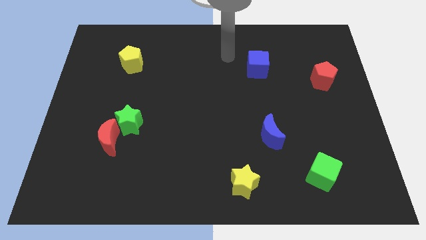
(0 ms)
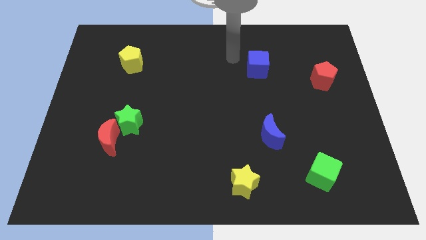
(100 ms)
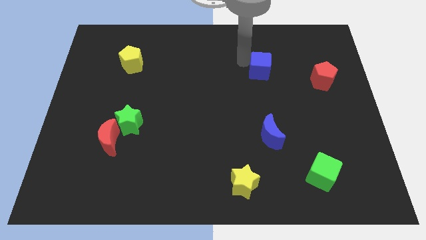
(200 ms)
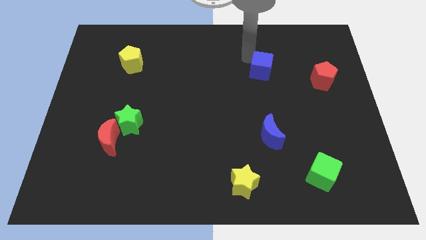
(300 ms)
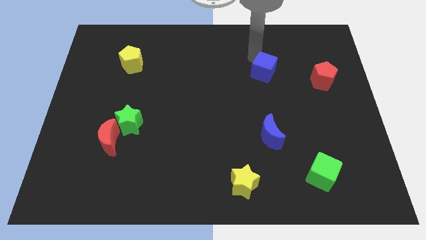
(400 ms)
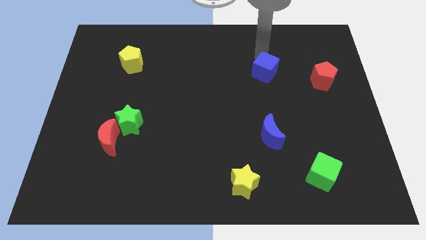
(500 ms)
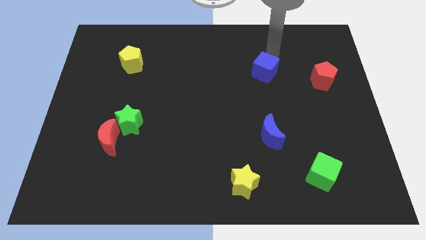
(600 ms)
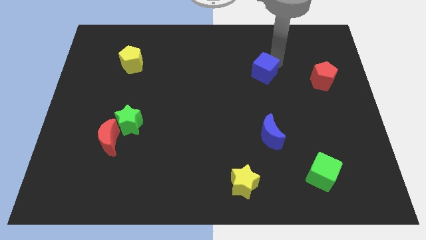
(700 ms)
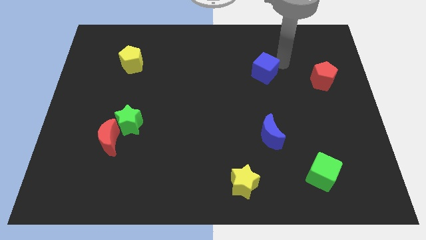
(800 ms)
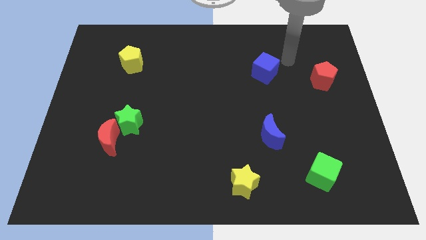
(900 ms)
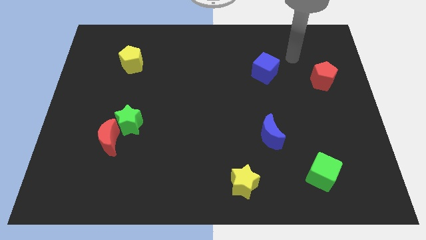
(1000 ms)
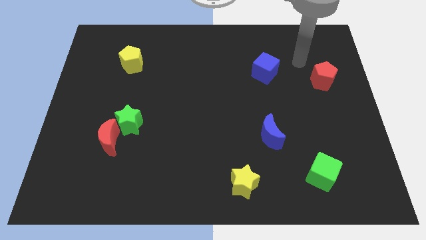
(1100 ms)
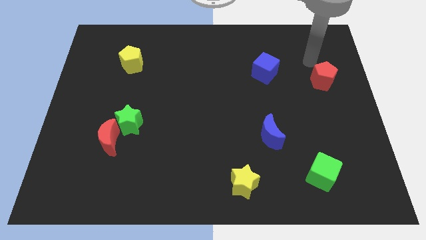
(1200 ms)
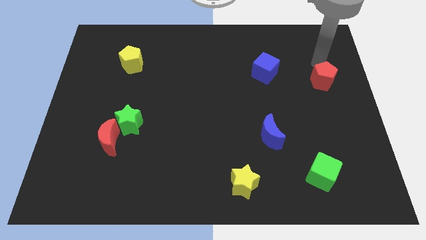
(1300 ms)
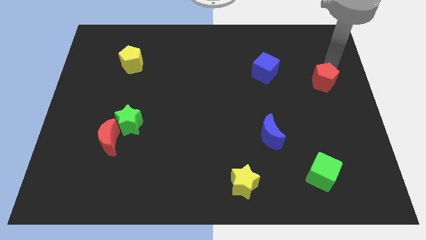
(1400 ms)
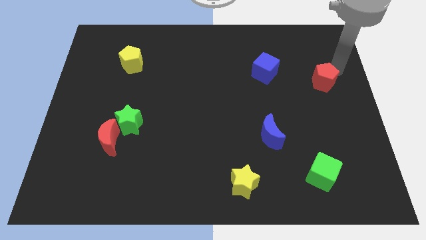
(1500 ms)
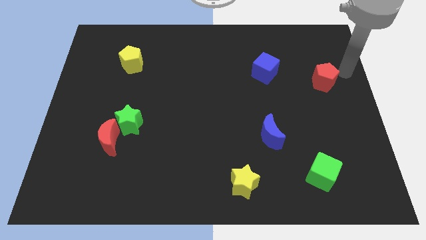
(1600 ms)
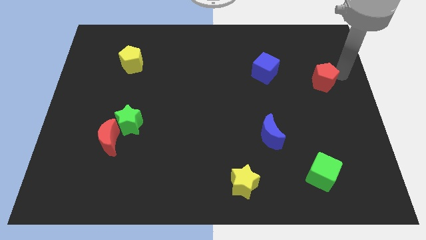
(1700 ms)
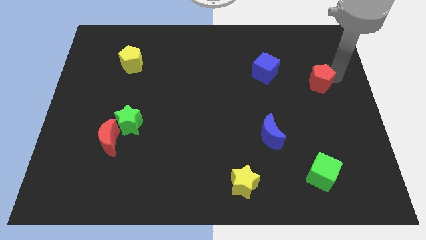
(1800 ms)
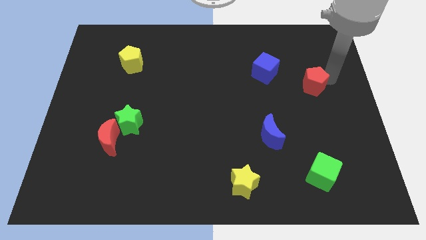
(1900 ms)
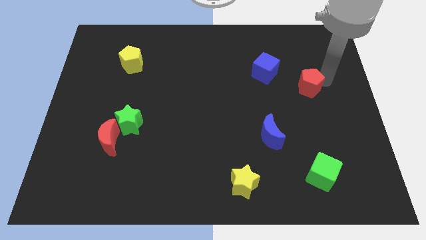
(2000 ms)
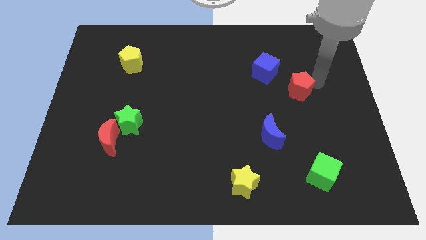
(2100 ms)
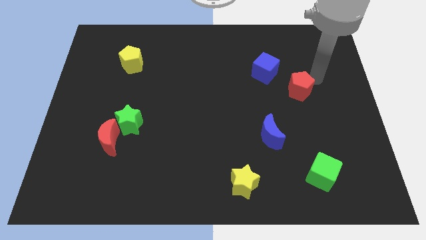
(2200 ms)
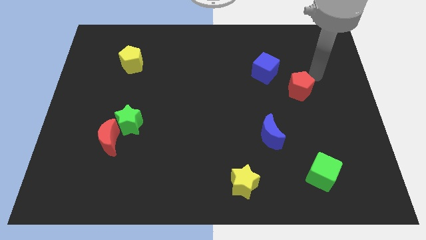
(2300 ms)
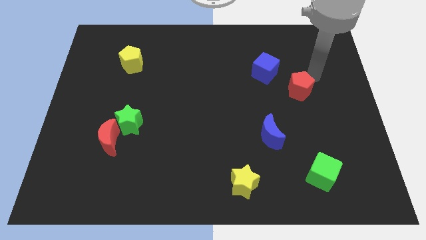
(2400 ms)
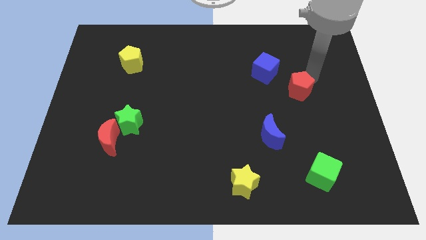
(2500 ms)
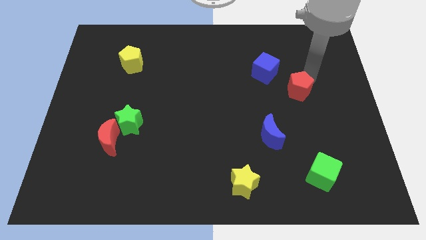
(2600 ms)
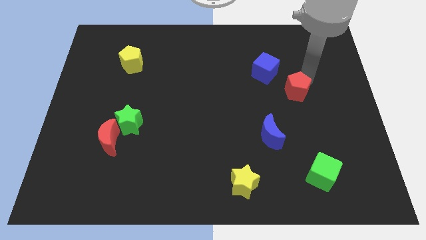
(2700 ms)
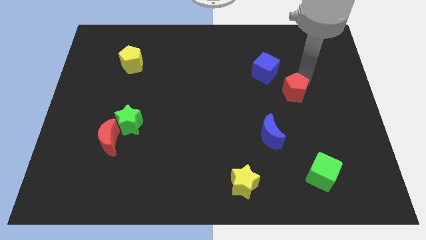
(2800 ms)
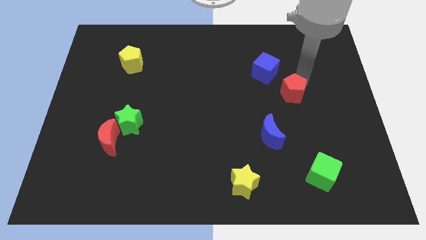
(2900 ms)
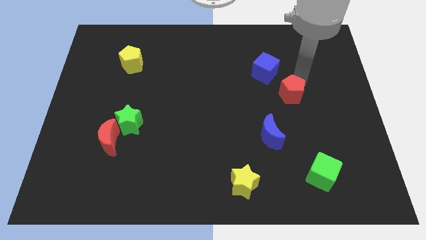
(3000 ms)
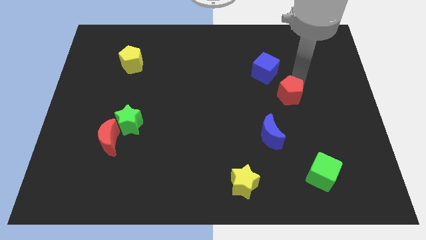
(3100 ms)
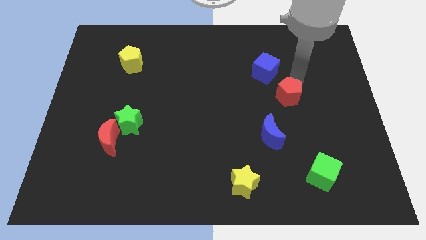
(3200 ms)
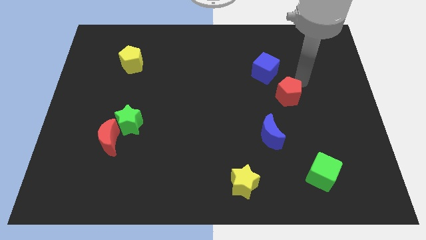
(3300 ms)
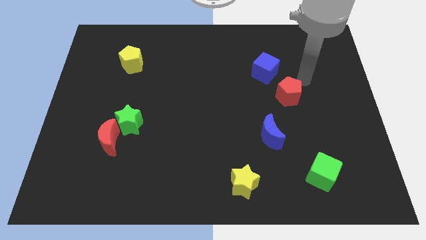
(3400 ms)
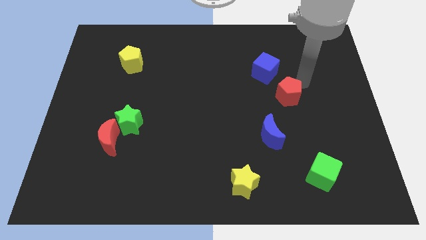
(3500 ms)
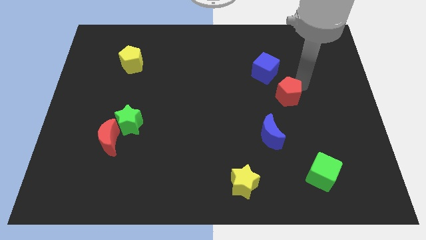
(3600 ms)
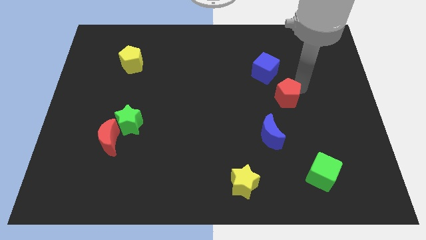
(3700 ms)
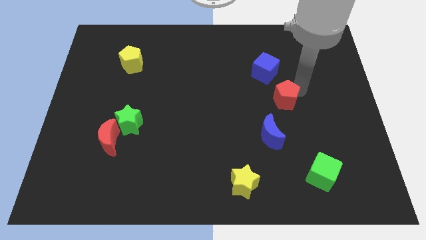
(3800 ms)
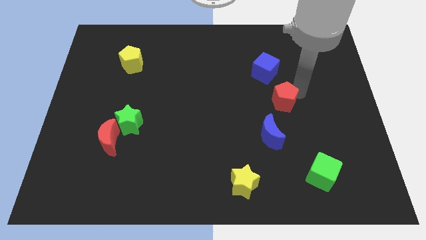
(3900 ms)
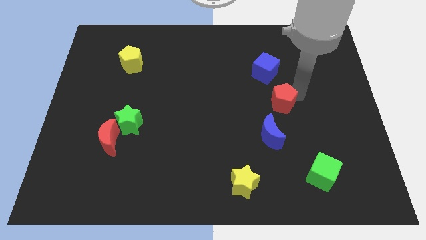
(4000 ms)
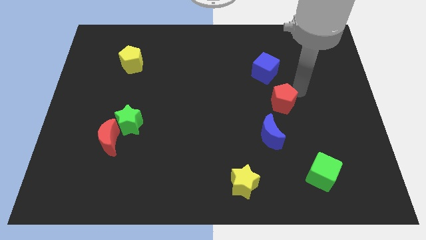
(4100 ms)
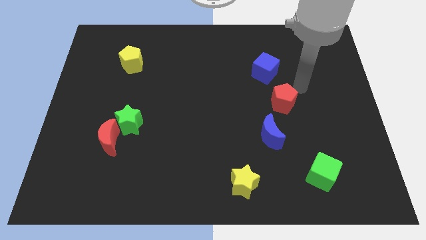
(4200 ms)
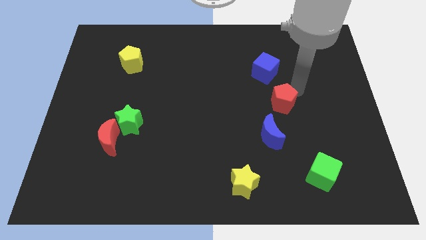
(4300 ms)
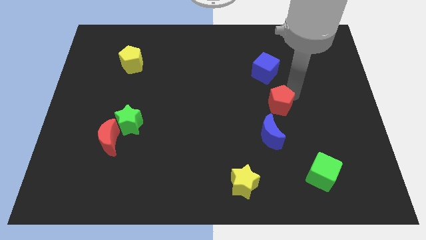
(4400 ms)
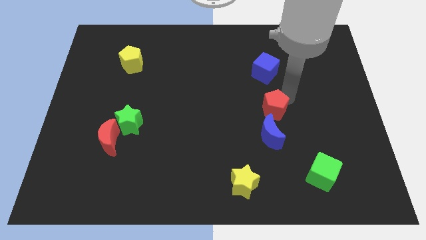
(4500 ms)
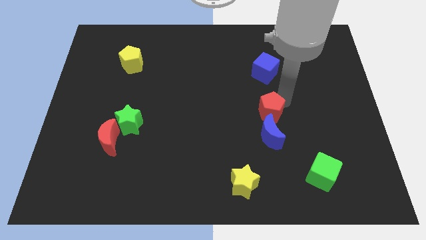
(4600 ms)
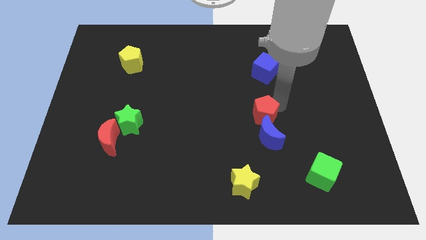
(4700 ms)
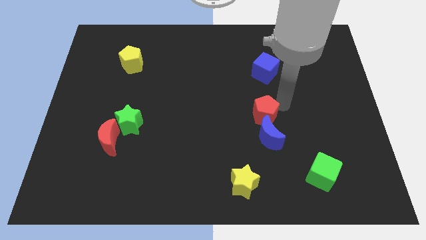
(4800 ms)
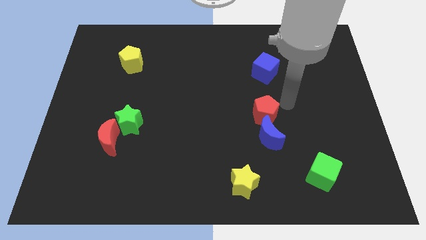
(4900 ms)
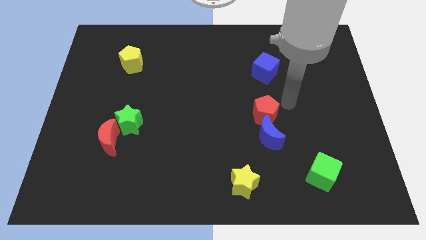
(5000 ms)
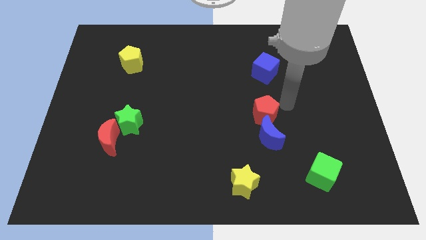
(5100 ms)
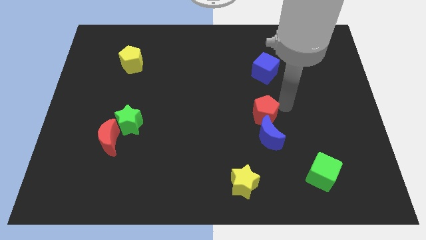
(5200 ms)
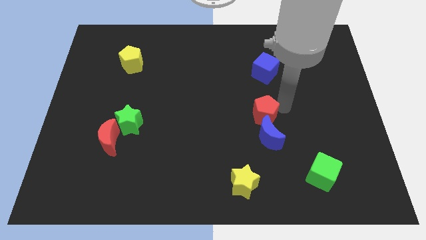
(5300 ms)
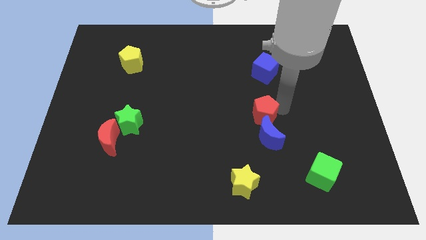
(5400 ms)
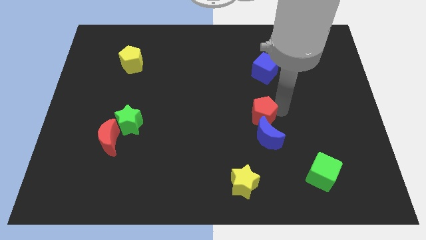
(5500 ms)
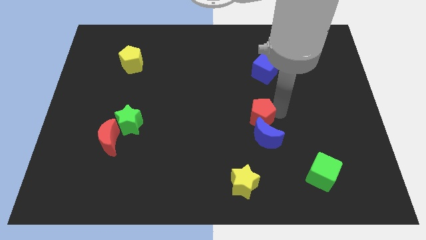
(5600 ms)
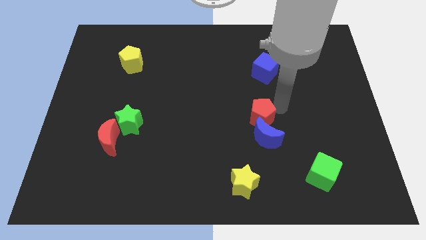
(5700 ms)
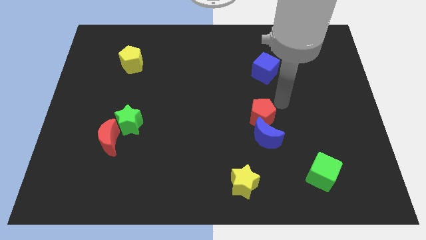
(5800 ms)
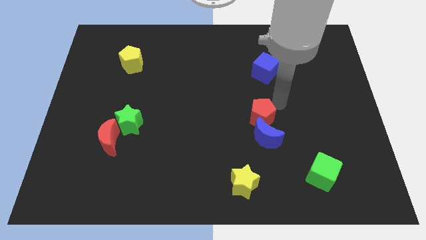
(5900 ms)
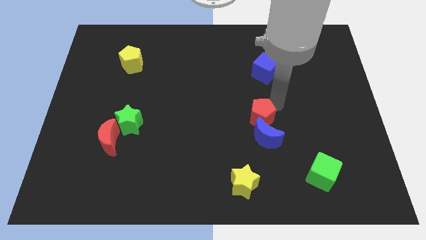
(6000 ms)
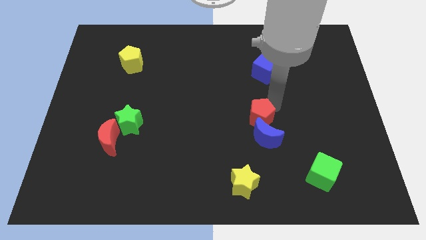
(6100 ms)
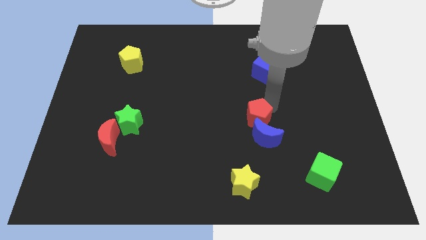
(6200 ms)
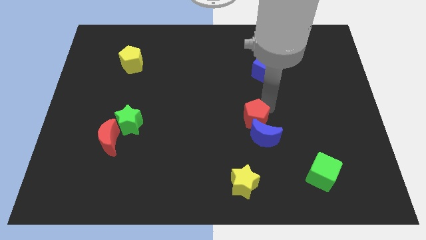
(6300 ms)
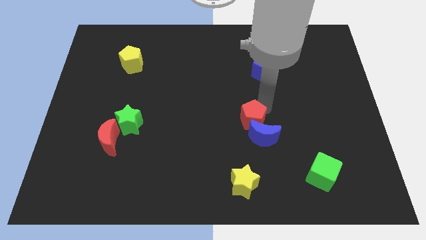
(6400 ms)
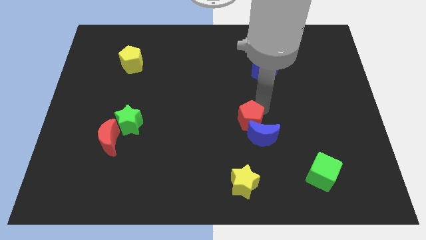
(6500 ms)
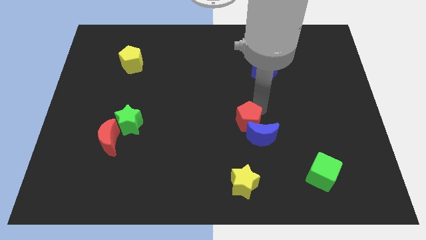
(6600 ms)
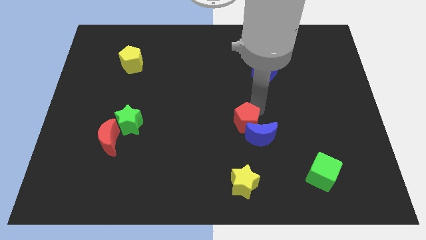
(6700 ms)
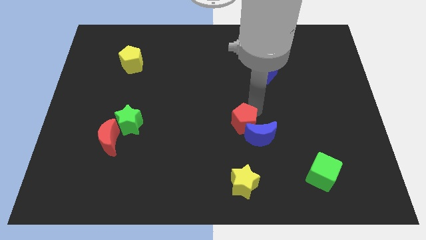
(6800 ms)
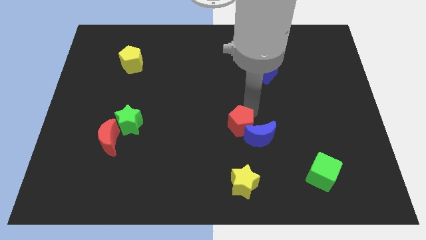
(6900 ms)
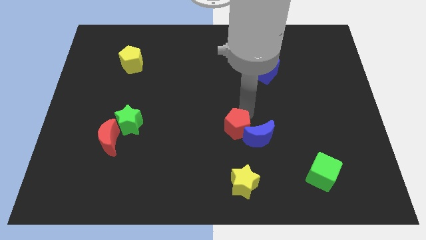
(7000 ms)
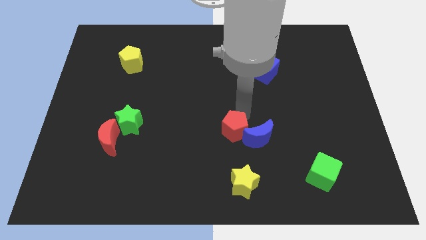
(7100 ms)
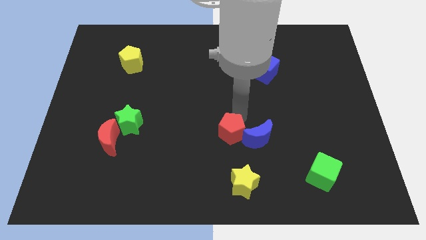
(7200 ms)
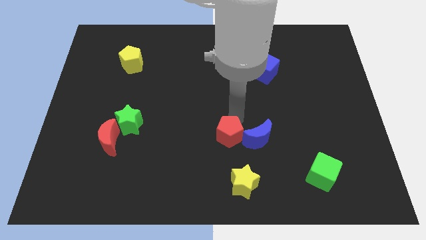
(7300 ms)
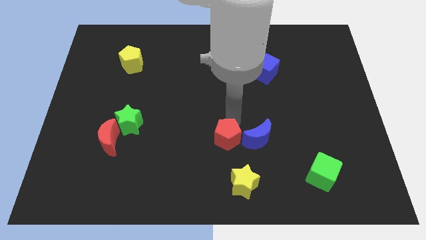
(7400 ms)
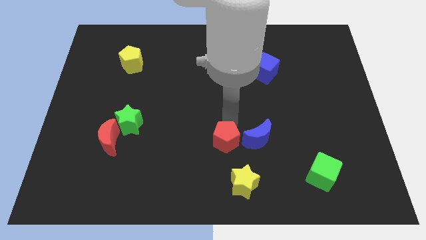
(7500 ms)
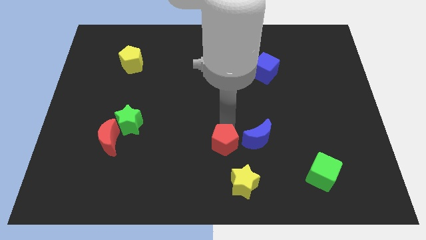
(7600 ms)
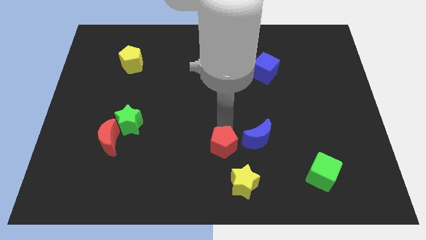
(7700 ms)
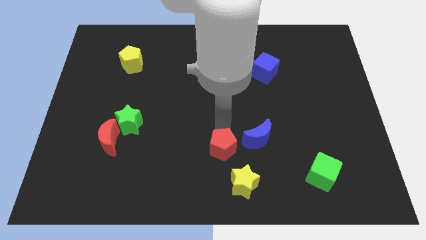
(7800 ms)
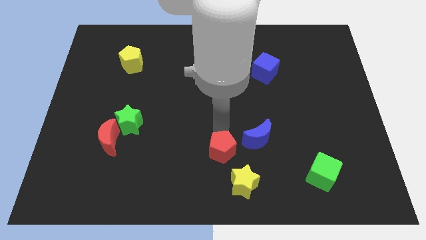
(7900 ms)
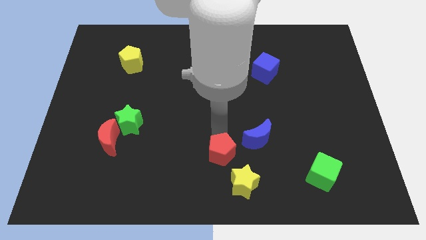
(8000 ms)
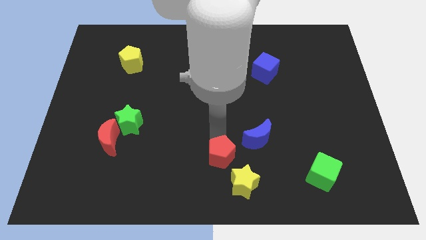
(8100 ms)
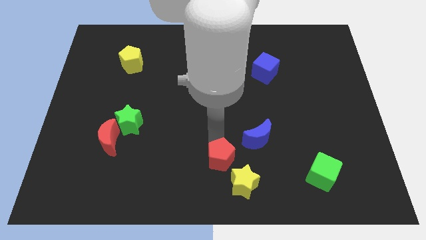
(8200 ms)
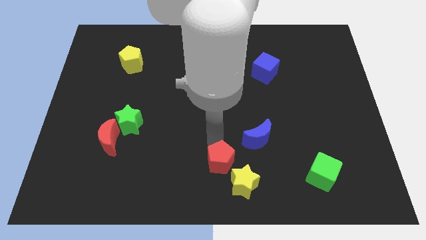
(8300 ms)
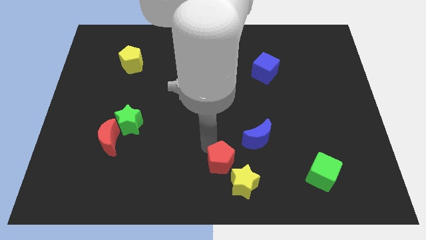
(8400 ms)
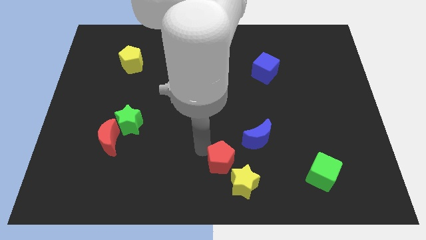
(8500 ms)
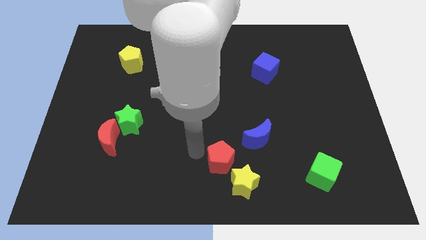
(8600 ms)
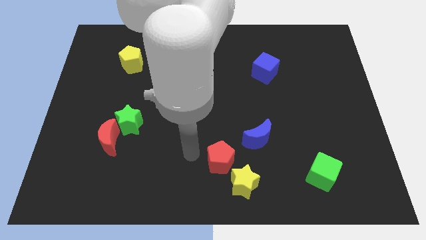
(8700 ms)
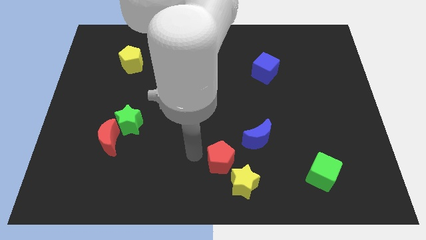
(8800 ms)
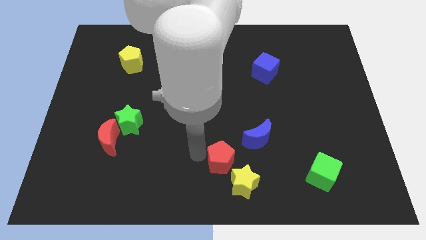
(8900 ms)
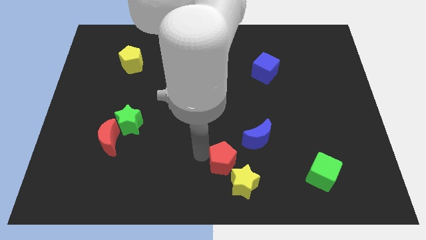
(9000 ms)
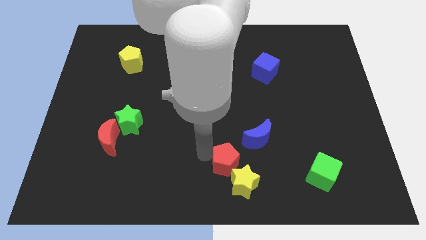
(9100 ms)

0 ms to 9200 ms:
put the red pentagon close to the yellow star
